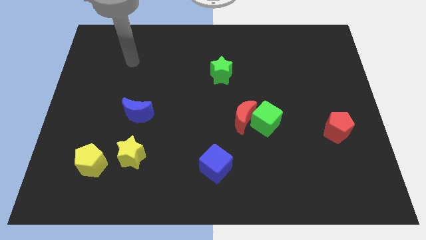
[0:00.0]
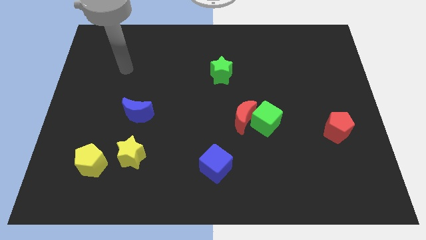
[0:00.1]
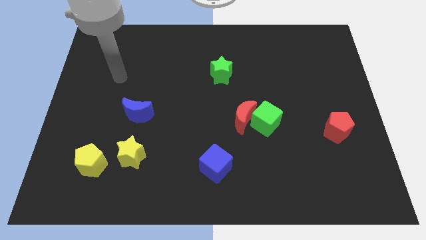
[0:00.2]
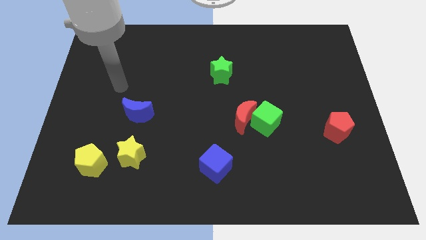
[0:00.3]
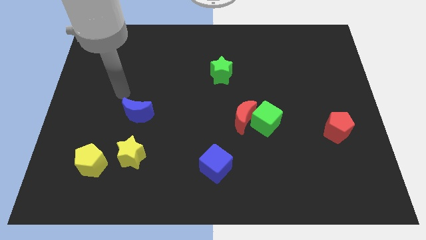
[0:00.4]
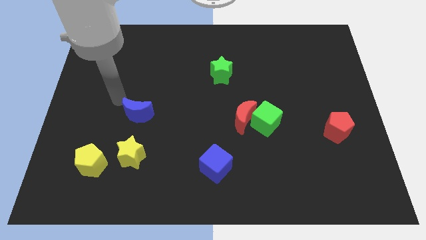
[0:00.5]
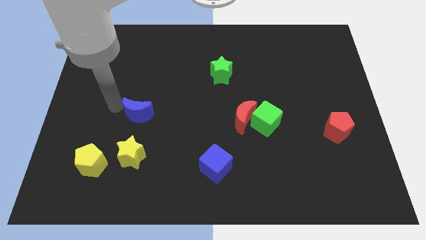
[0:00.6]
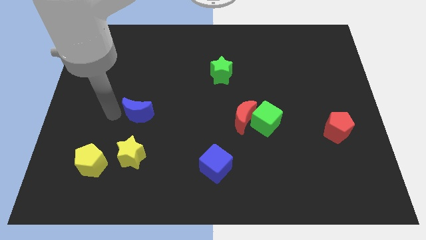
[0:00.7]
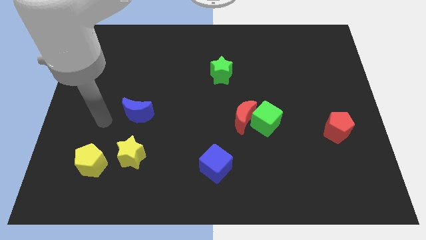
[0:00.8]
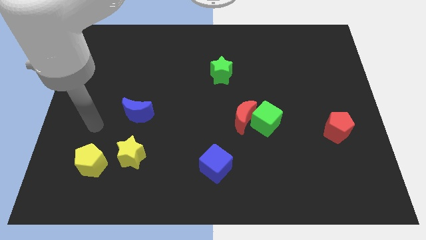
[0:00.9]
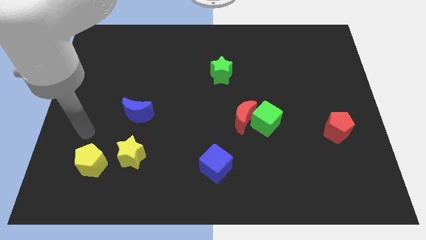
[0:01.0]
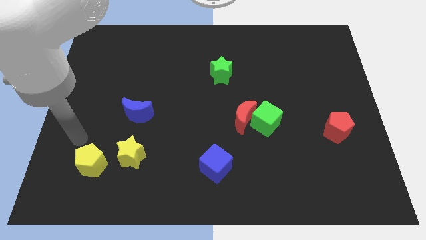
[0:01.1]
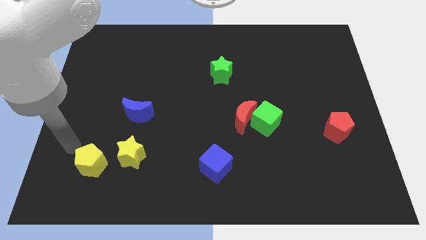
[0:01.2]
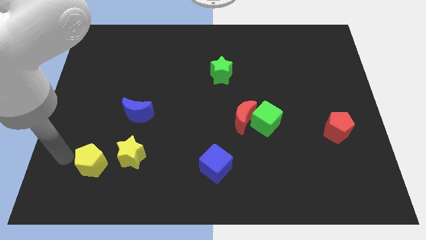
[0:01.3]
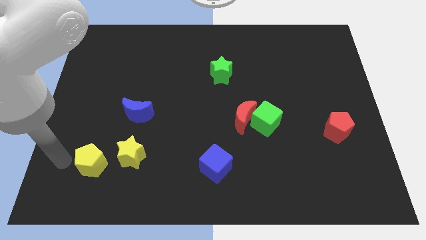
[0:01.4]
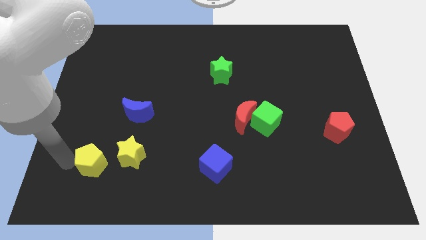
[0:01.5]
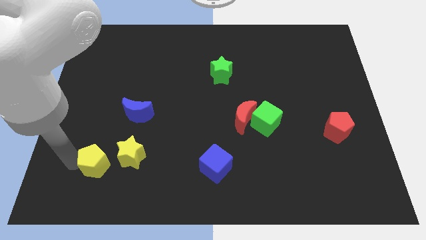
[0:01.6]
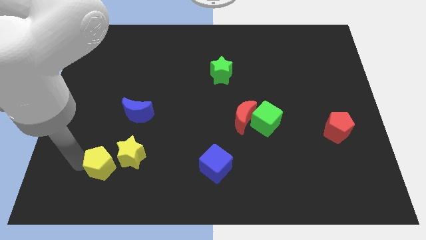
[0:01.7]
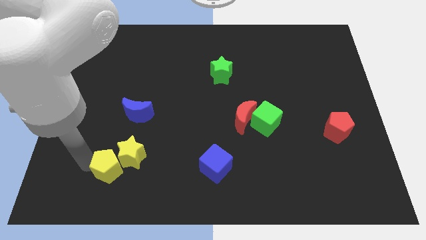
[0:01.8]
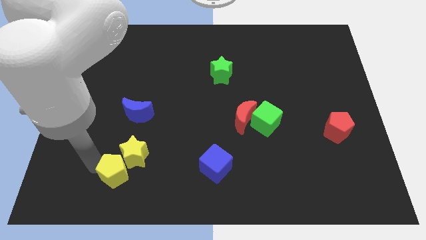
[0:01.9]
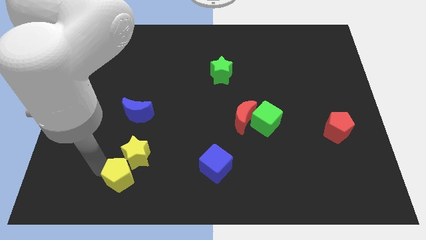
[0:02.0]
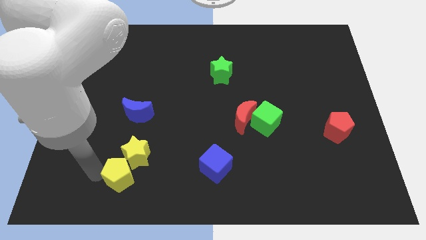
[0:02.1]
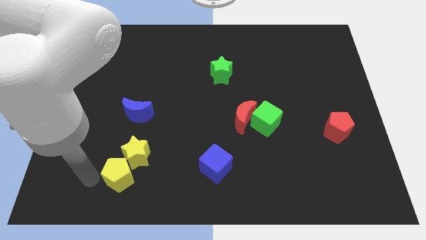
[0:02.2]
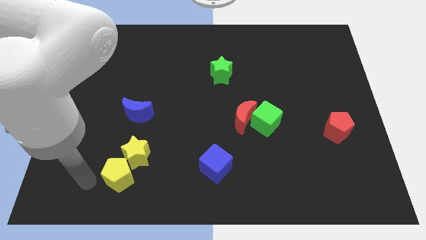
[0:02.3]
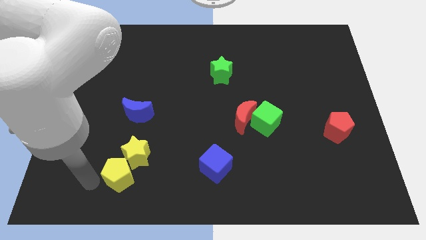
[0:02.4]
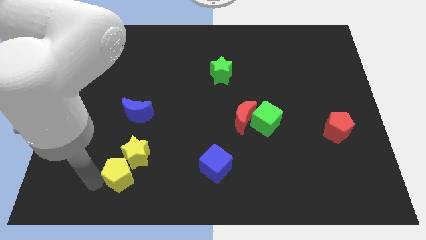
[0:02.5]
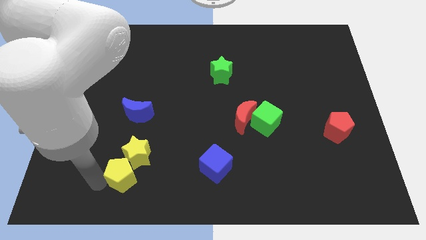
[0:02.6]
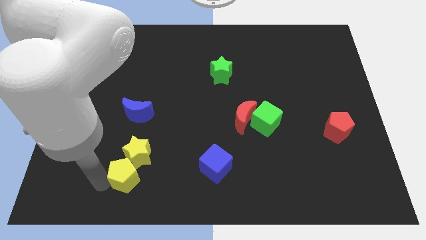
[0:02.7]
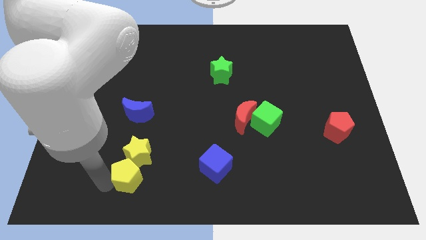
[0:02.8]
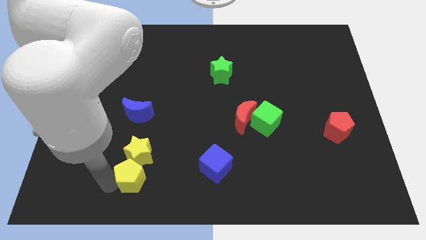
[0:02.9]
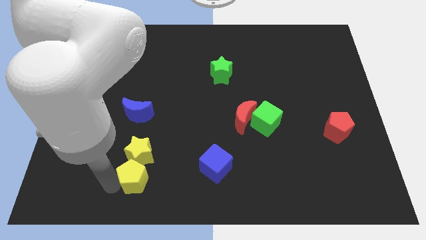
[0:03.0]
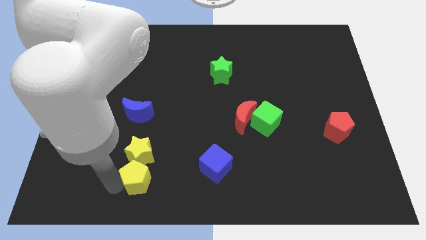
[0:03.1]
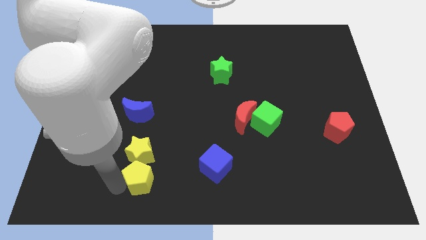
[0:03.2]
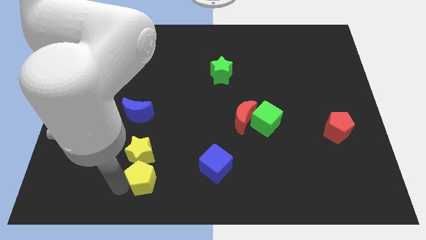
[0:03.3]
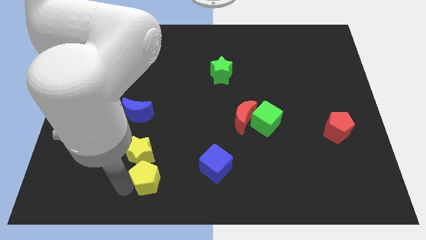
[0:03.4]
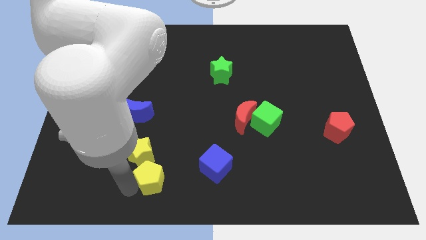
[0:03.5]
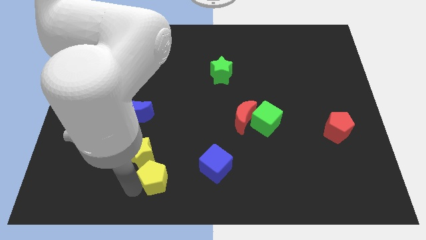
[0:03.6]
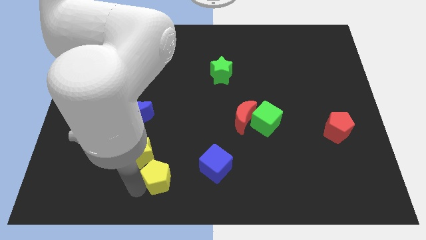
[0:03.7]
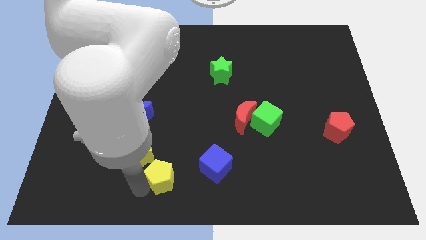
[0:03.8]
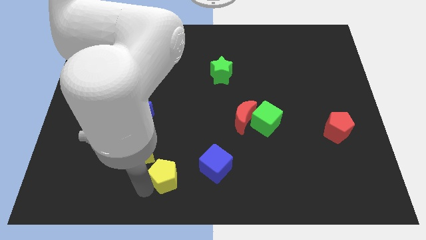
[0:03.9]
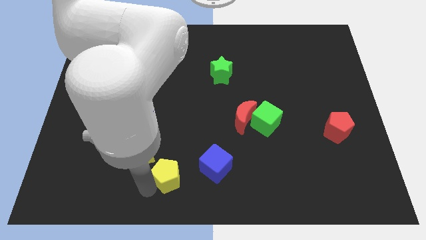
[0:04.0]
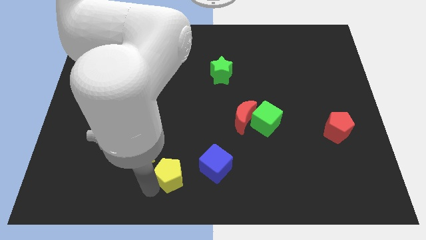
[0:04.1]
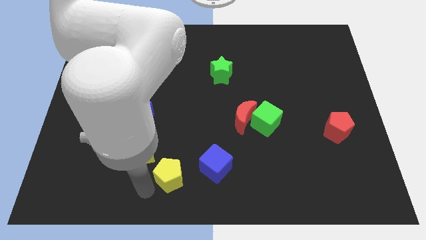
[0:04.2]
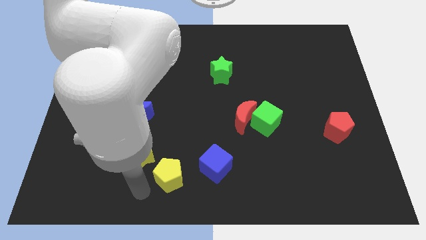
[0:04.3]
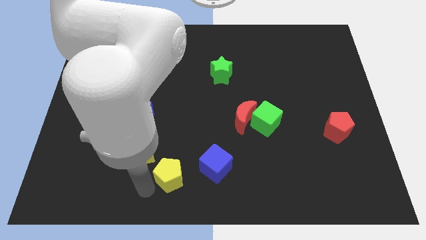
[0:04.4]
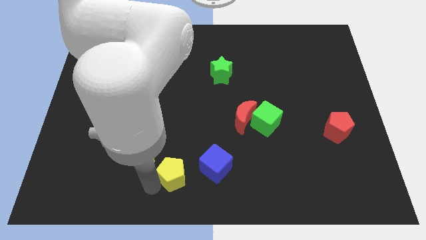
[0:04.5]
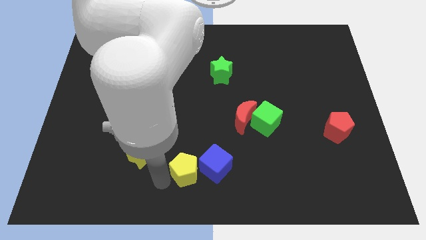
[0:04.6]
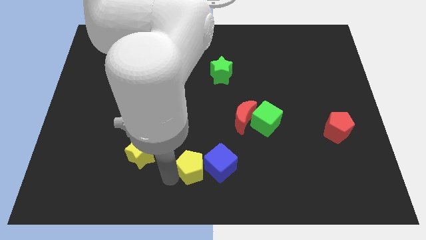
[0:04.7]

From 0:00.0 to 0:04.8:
slide the yellow pentagon next to the blue cube

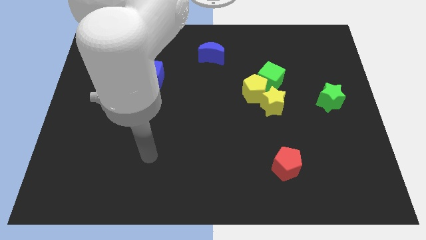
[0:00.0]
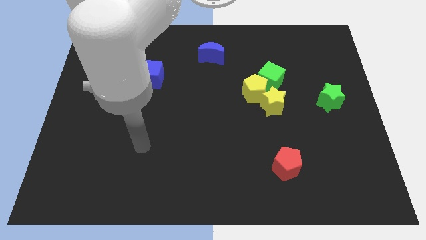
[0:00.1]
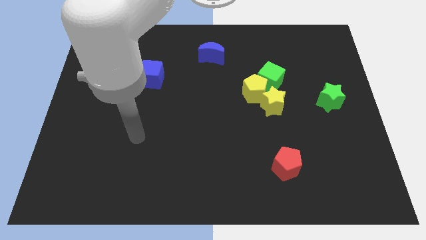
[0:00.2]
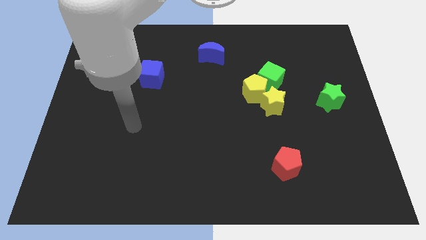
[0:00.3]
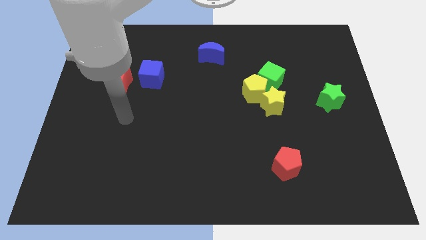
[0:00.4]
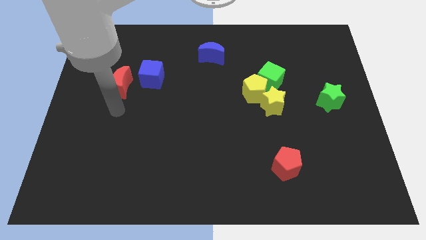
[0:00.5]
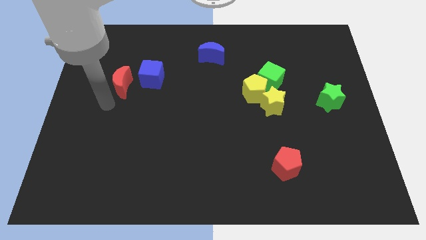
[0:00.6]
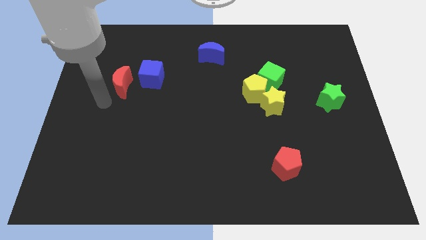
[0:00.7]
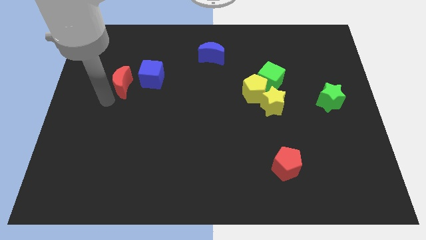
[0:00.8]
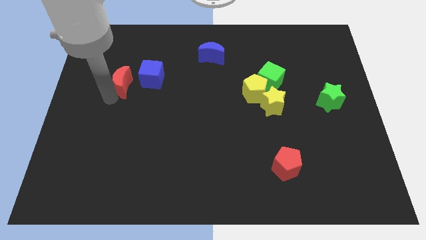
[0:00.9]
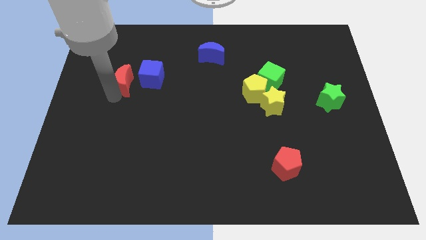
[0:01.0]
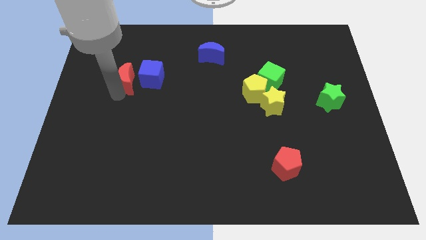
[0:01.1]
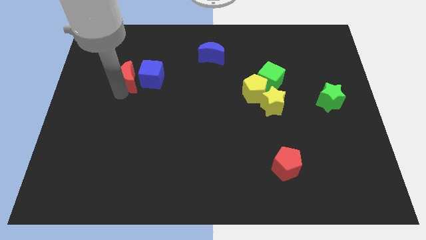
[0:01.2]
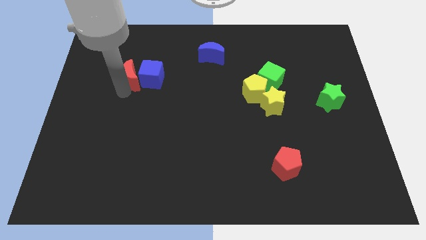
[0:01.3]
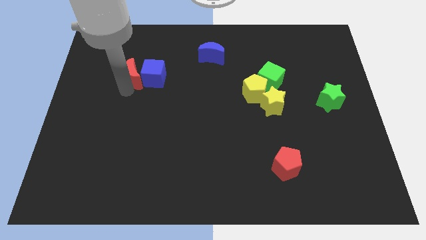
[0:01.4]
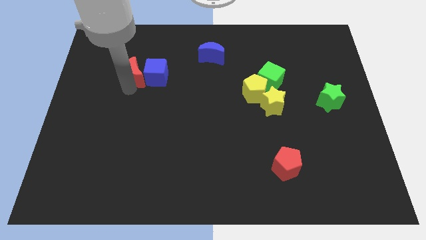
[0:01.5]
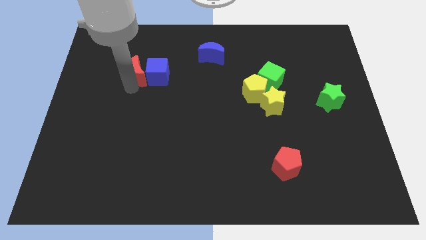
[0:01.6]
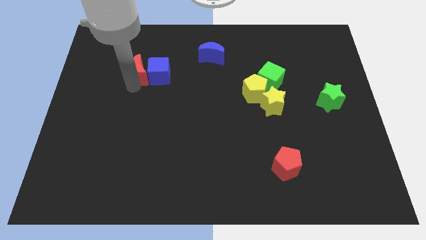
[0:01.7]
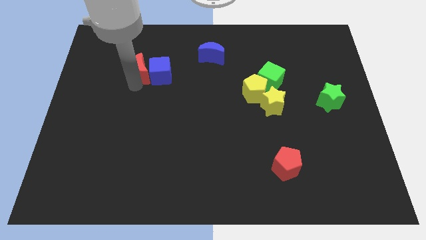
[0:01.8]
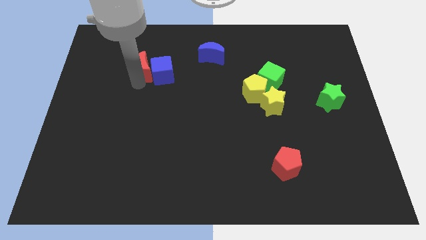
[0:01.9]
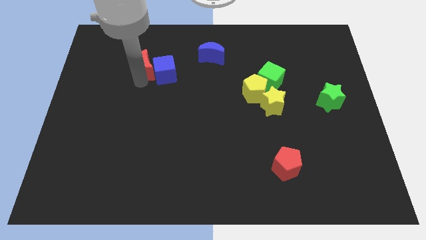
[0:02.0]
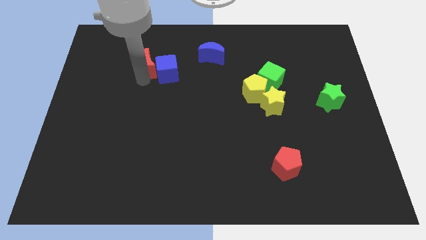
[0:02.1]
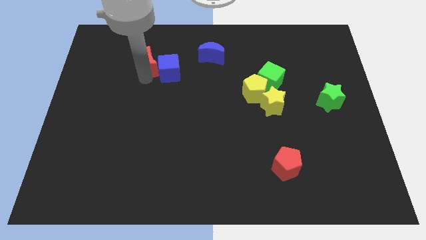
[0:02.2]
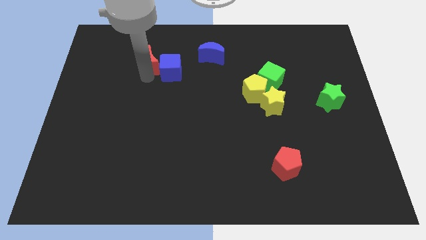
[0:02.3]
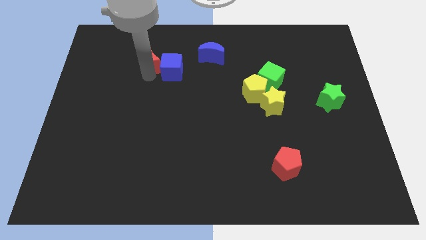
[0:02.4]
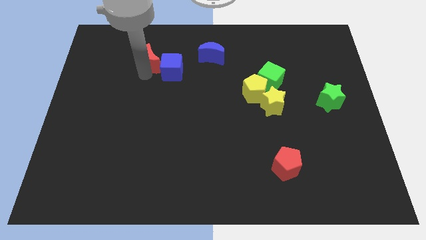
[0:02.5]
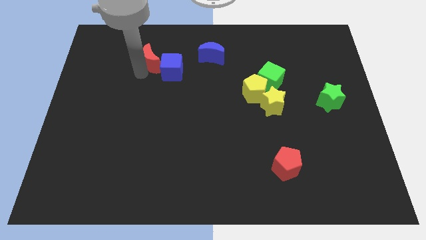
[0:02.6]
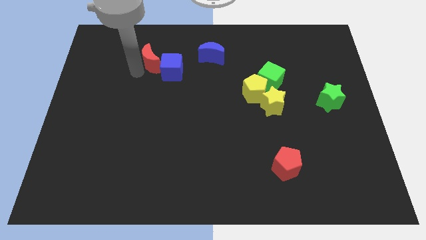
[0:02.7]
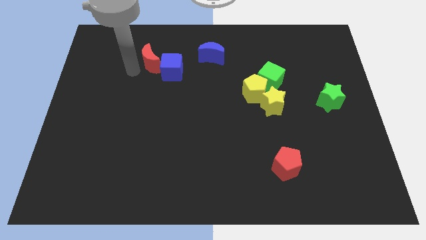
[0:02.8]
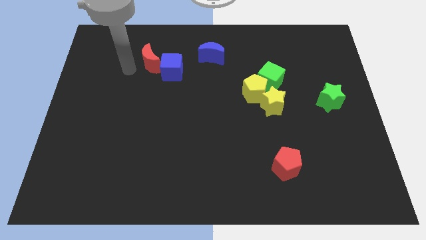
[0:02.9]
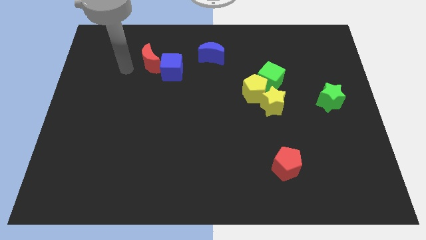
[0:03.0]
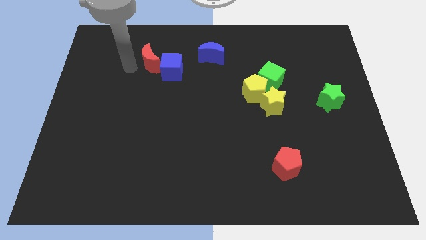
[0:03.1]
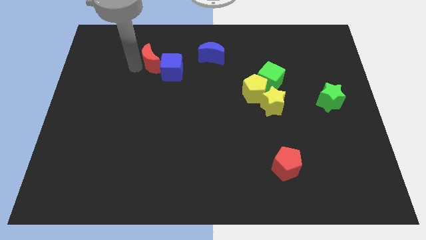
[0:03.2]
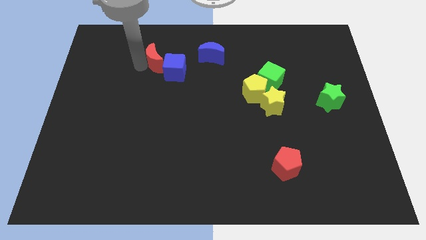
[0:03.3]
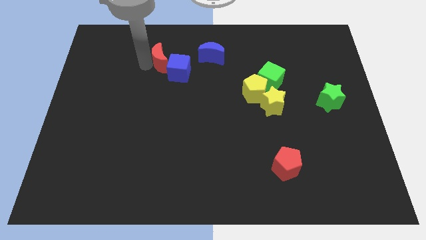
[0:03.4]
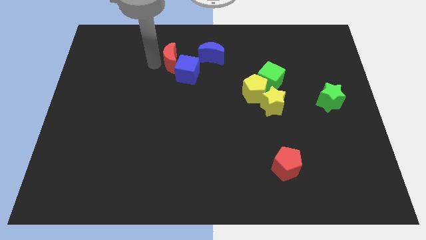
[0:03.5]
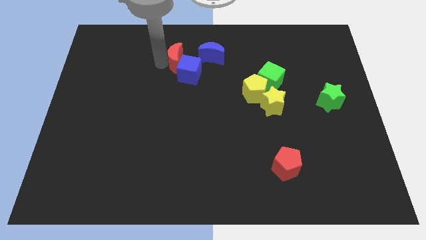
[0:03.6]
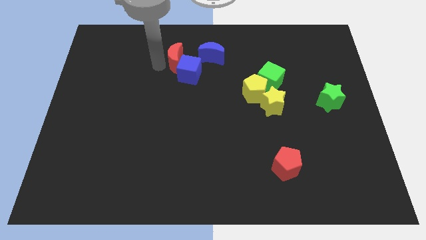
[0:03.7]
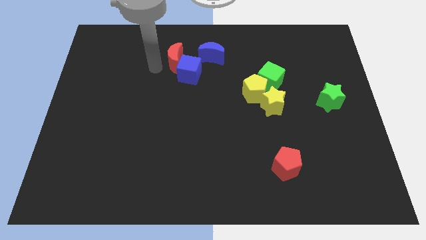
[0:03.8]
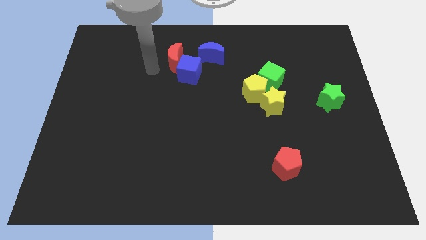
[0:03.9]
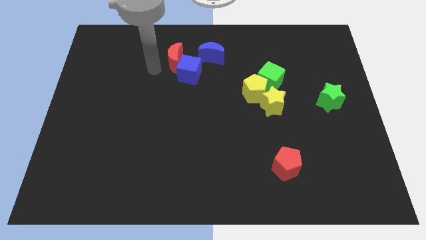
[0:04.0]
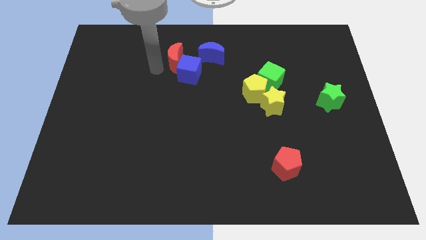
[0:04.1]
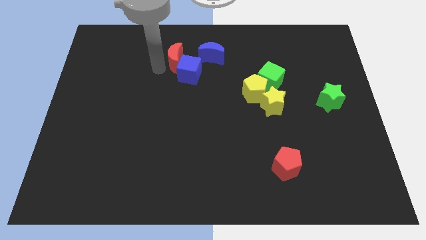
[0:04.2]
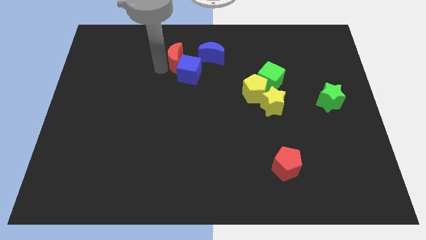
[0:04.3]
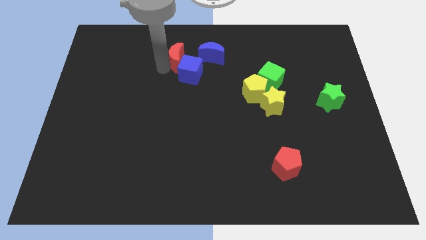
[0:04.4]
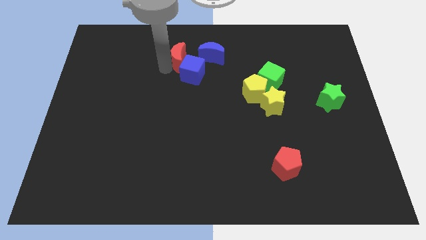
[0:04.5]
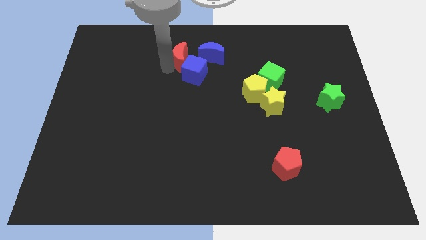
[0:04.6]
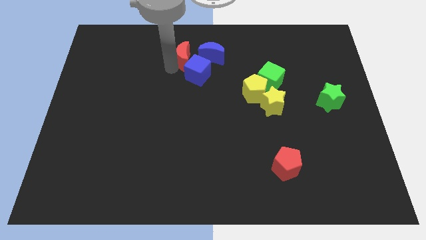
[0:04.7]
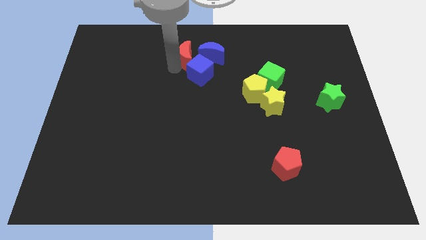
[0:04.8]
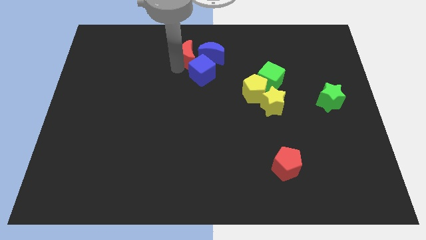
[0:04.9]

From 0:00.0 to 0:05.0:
move the red moon close to the blue moon
